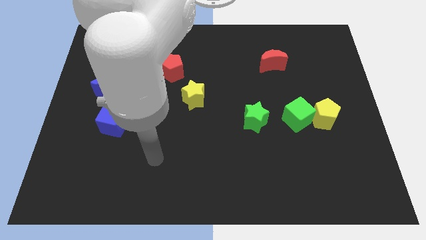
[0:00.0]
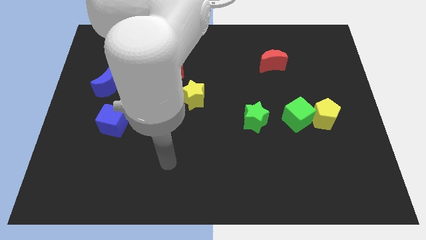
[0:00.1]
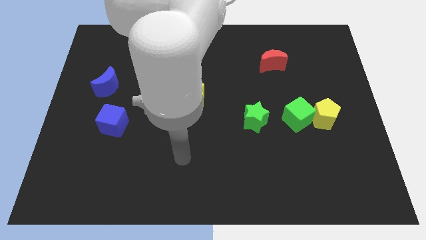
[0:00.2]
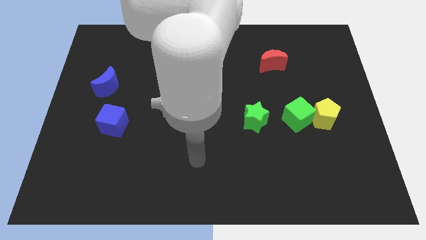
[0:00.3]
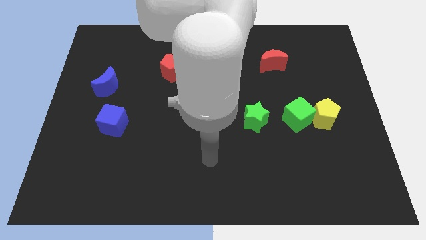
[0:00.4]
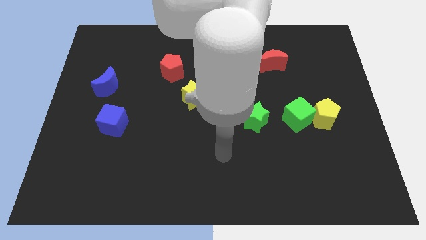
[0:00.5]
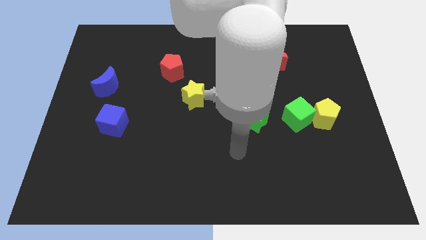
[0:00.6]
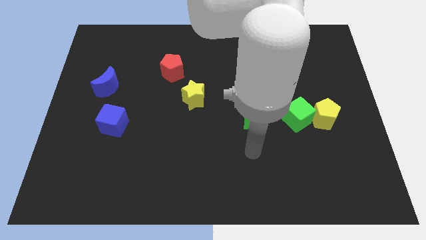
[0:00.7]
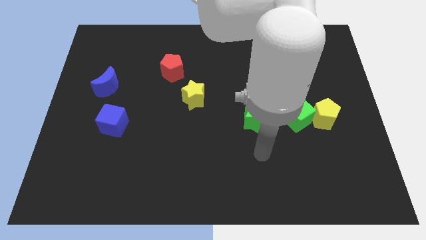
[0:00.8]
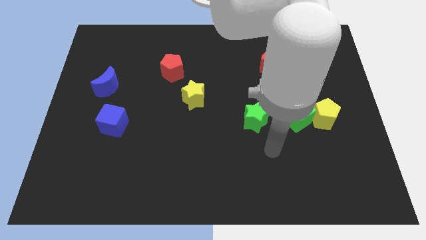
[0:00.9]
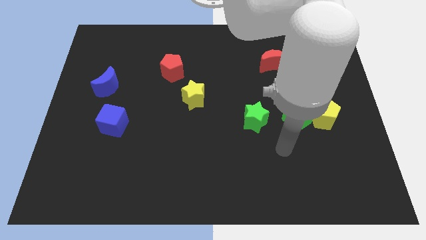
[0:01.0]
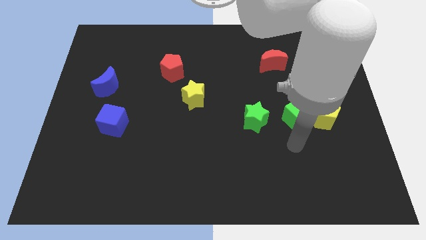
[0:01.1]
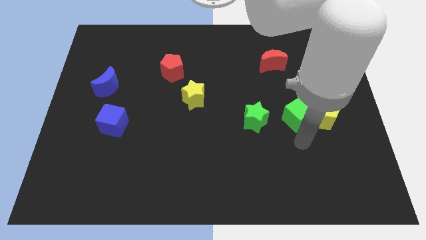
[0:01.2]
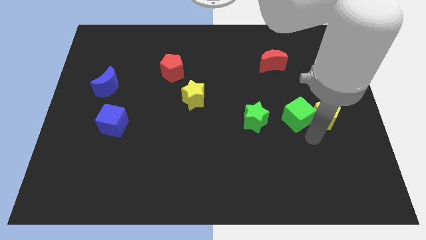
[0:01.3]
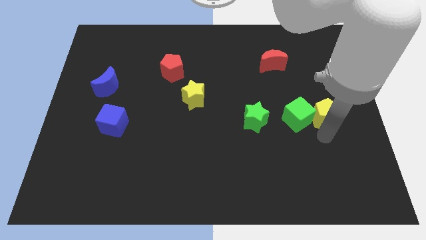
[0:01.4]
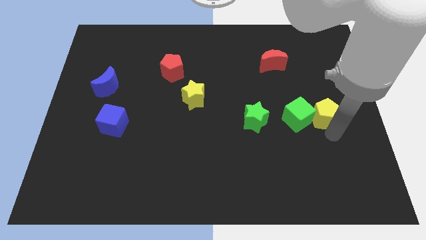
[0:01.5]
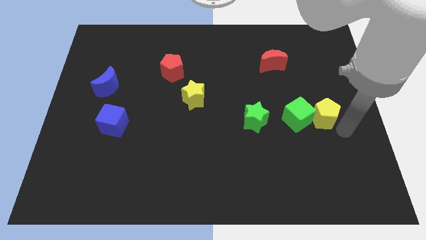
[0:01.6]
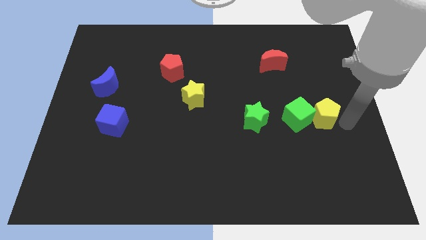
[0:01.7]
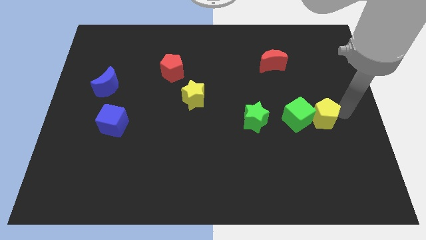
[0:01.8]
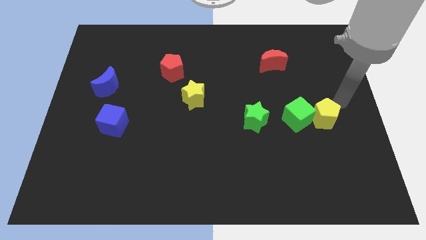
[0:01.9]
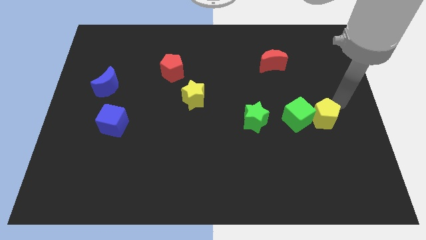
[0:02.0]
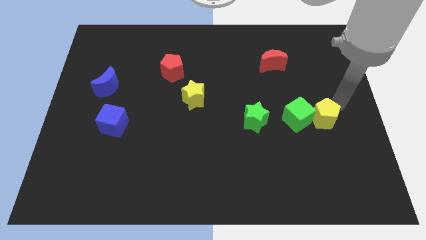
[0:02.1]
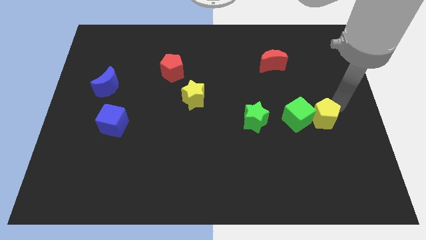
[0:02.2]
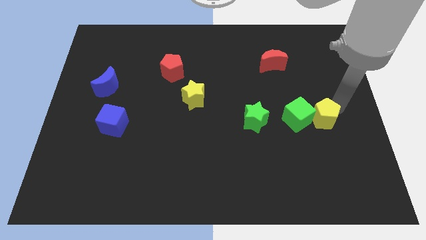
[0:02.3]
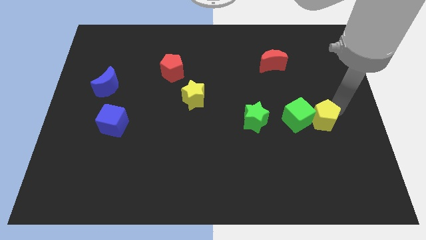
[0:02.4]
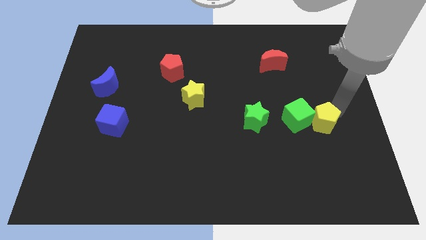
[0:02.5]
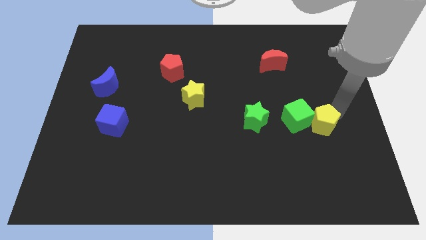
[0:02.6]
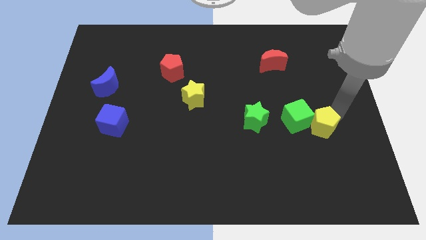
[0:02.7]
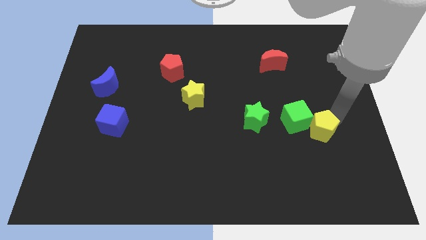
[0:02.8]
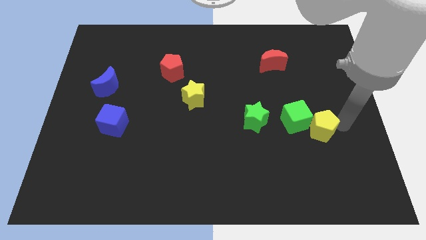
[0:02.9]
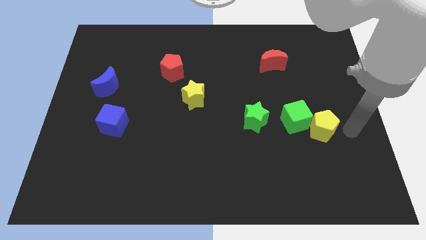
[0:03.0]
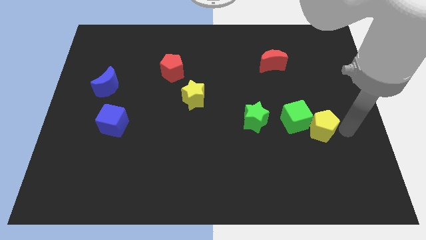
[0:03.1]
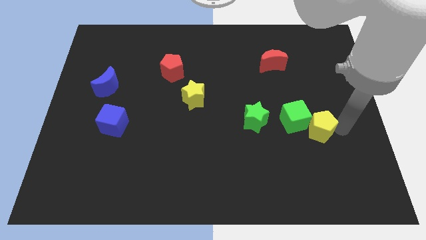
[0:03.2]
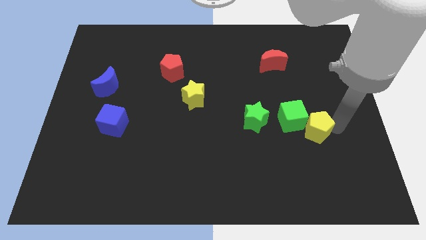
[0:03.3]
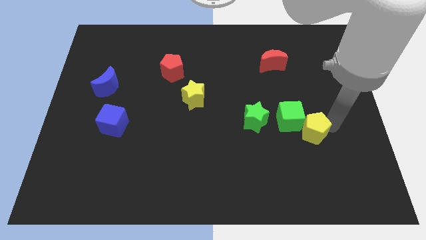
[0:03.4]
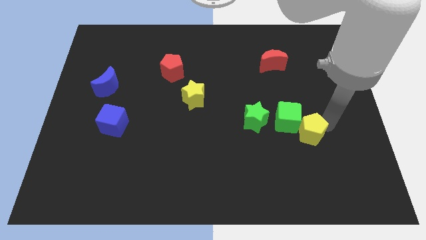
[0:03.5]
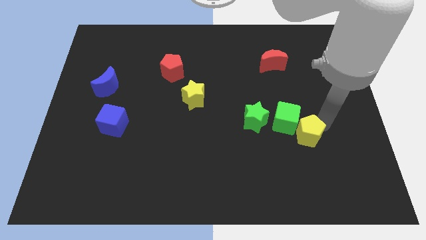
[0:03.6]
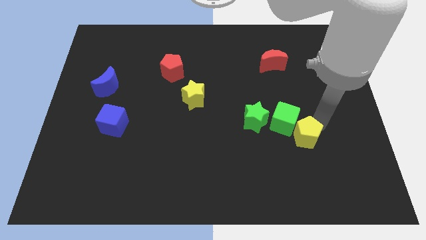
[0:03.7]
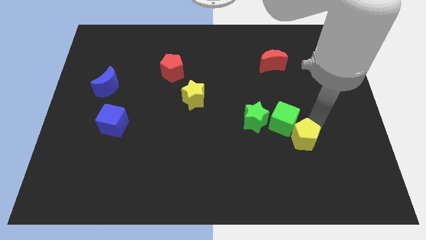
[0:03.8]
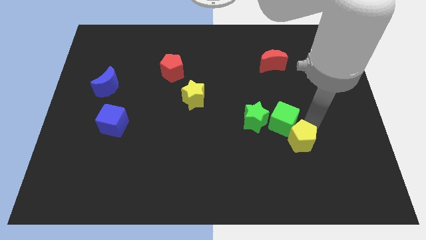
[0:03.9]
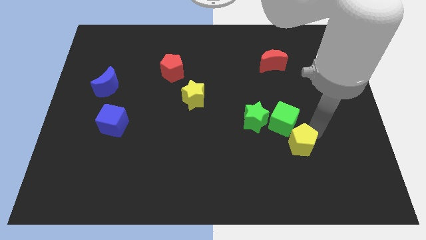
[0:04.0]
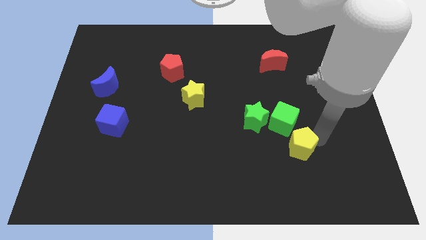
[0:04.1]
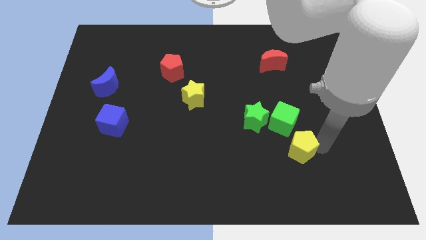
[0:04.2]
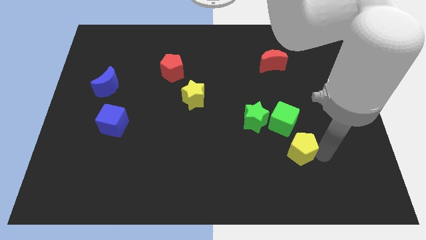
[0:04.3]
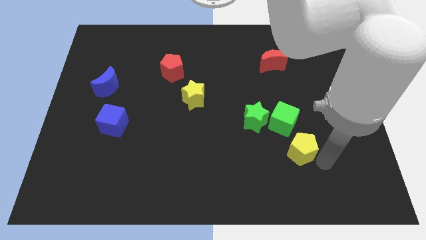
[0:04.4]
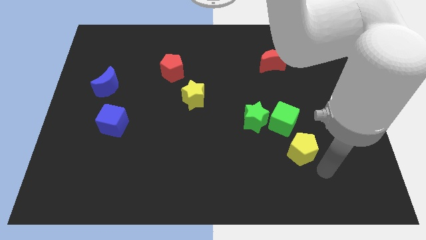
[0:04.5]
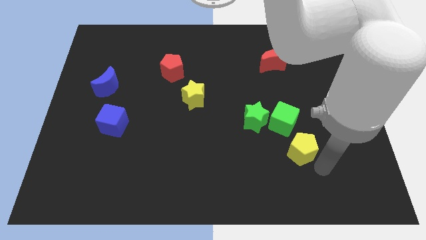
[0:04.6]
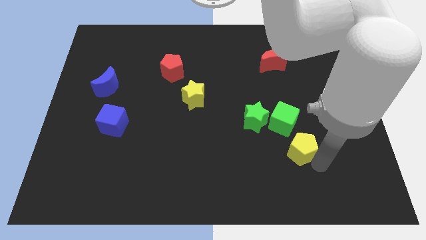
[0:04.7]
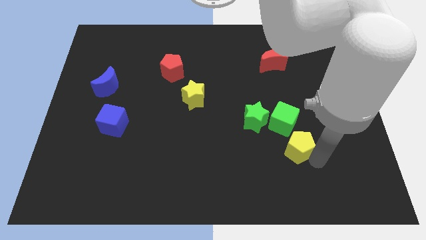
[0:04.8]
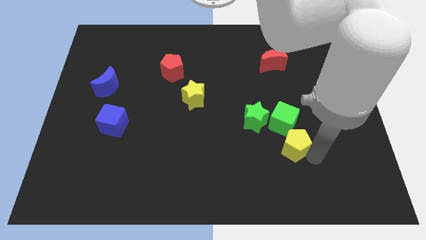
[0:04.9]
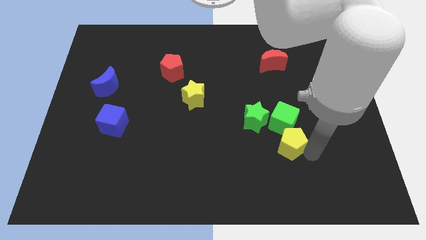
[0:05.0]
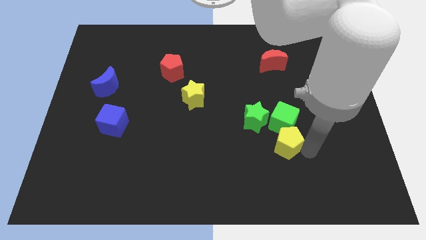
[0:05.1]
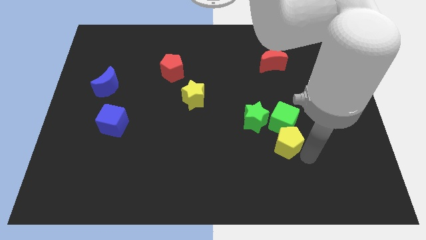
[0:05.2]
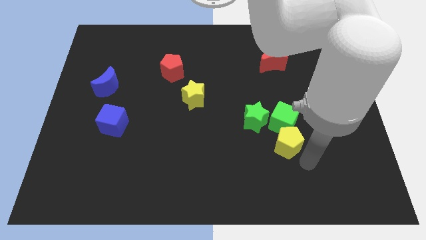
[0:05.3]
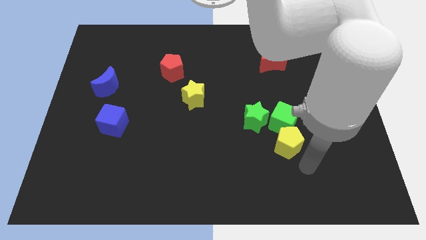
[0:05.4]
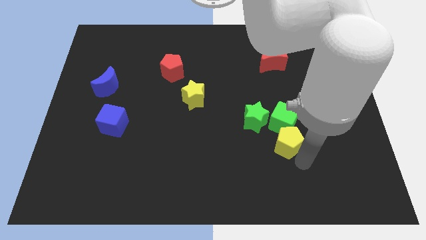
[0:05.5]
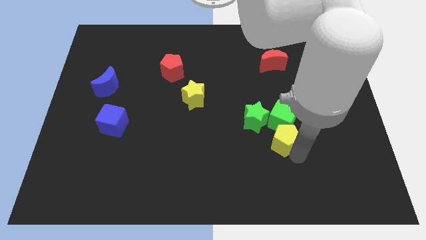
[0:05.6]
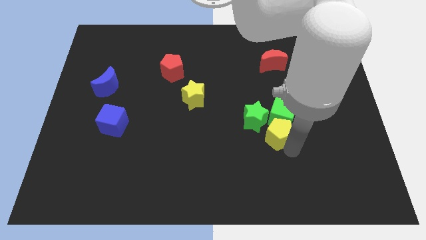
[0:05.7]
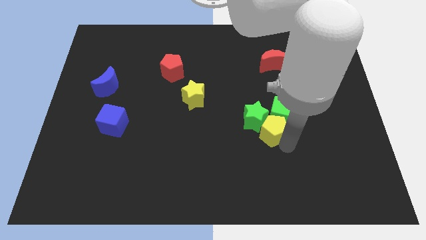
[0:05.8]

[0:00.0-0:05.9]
slide the yellow pentagon next to the green star
